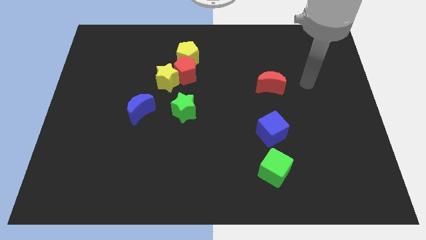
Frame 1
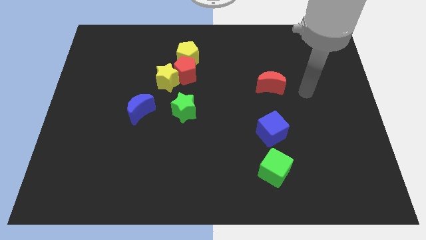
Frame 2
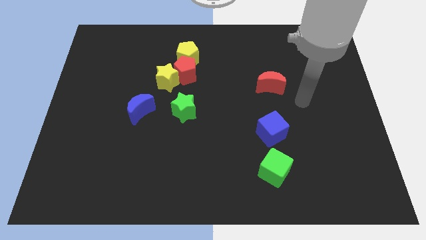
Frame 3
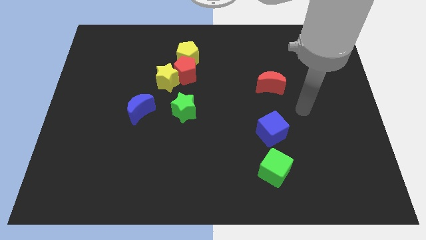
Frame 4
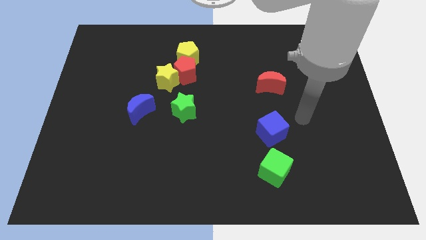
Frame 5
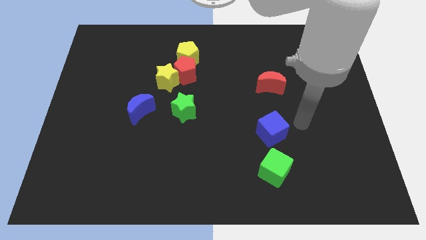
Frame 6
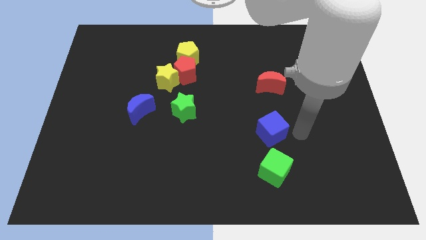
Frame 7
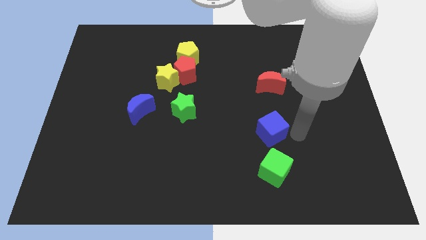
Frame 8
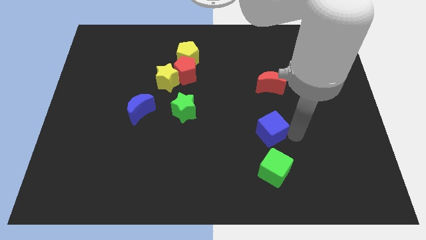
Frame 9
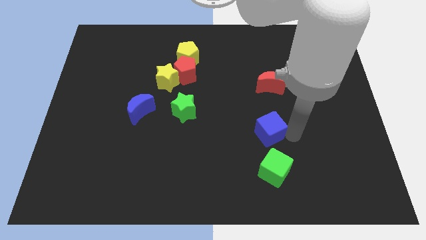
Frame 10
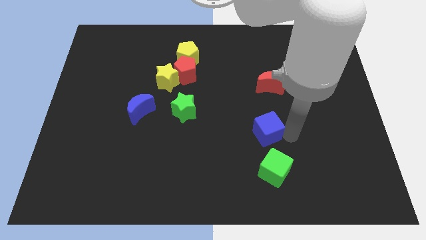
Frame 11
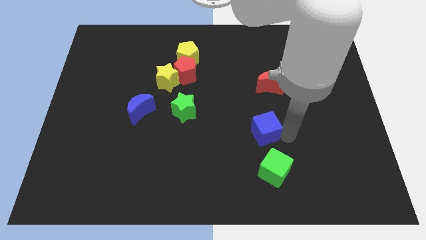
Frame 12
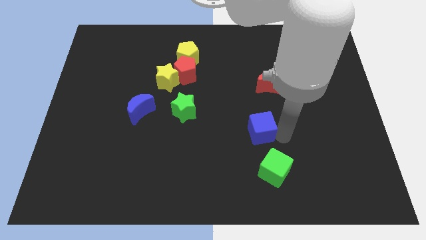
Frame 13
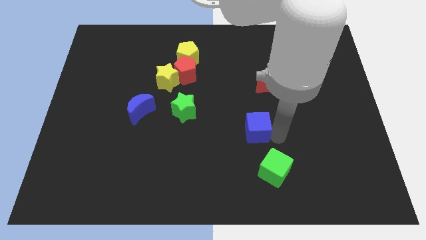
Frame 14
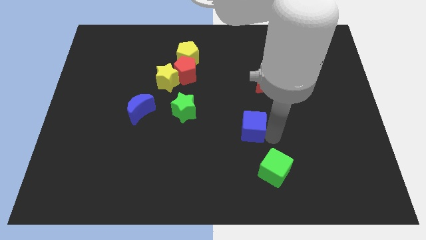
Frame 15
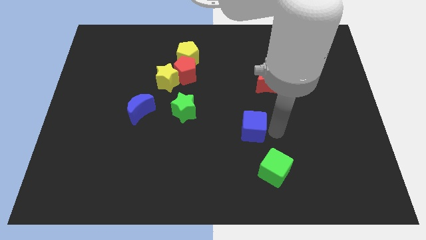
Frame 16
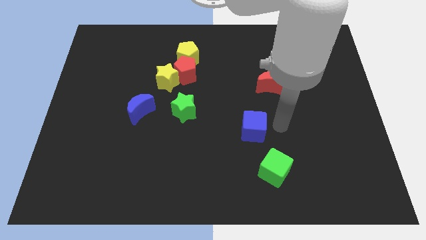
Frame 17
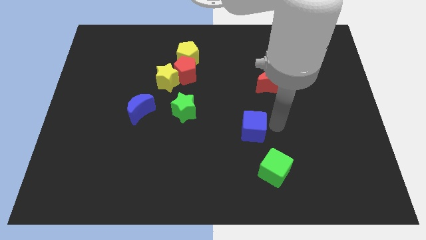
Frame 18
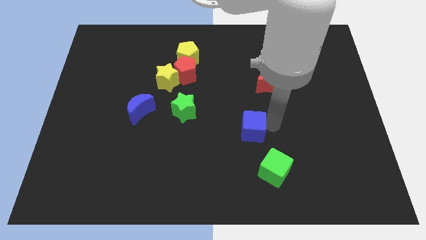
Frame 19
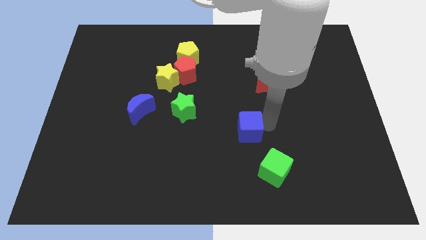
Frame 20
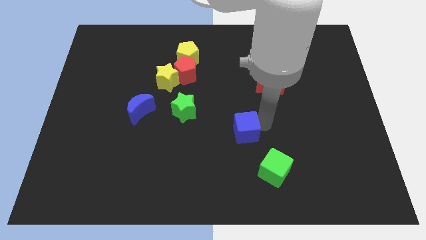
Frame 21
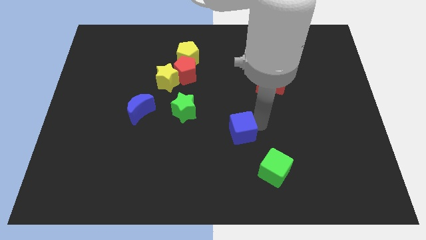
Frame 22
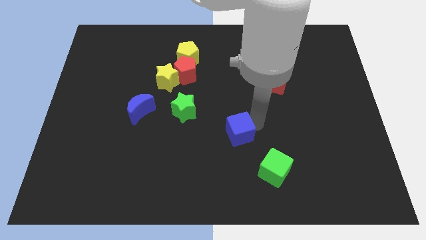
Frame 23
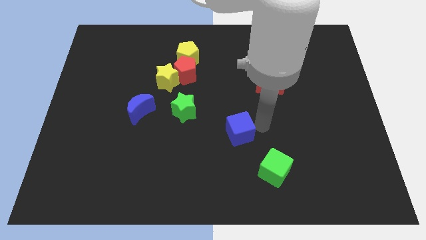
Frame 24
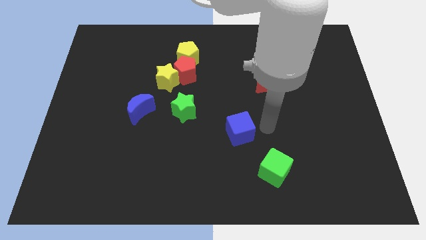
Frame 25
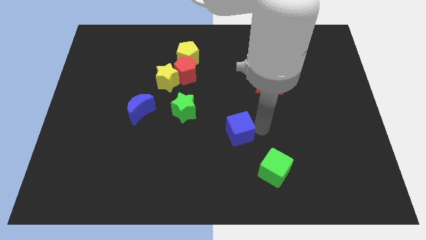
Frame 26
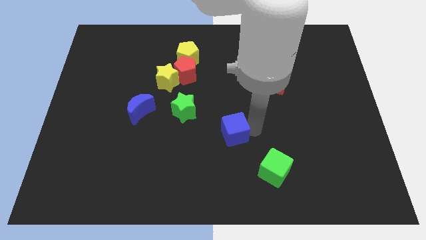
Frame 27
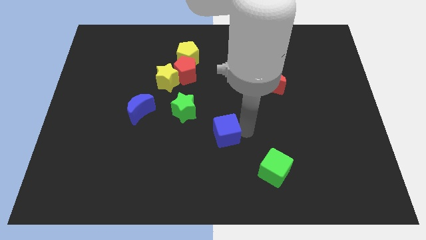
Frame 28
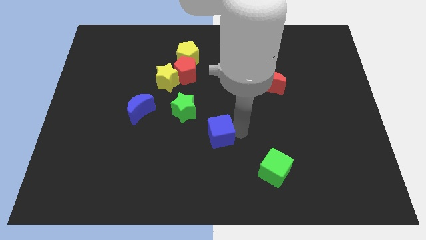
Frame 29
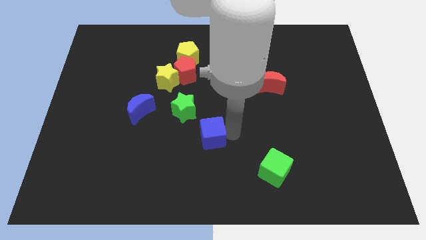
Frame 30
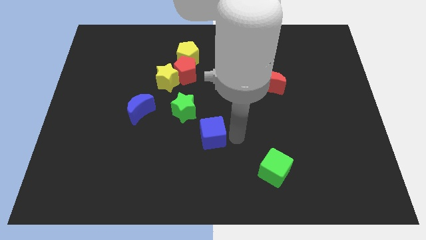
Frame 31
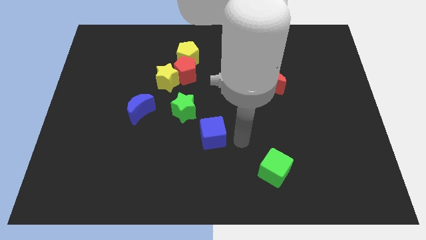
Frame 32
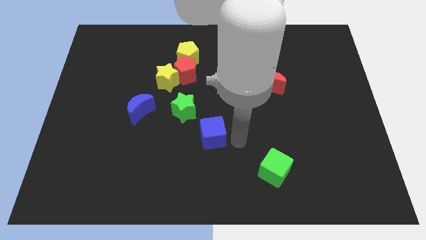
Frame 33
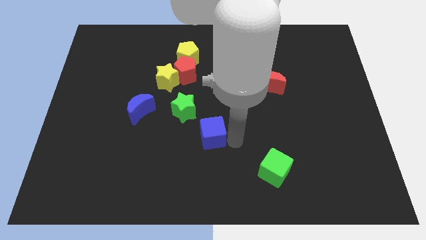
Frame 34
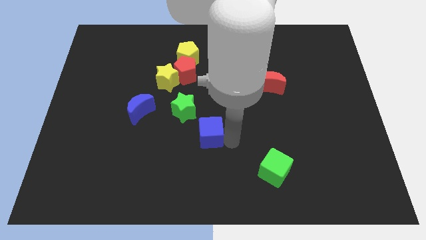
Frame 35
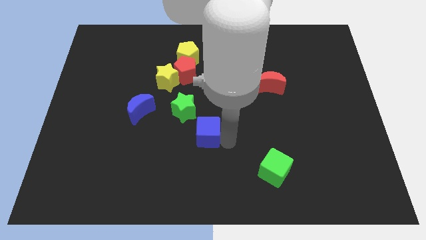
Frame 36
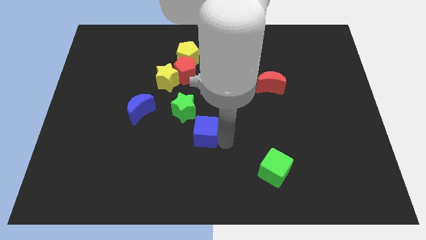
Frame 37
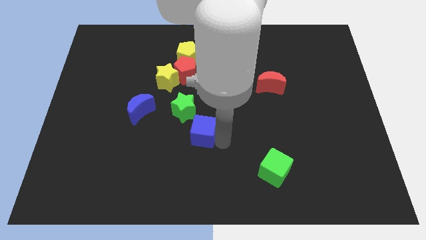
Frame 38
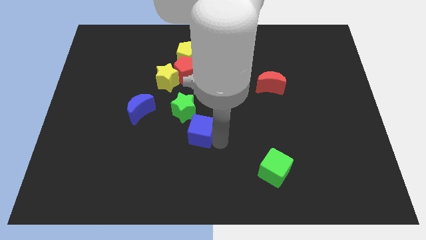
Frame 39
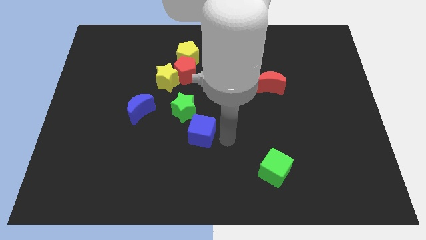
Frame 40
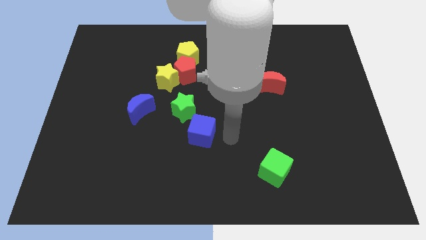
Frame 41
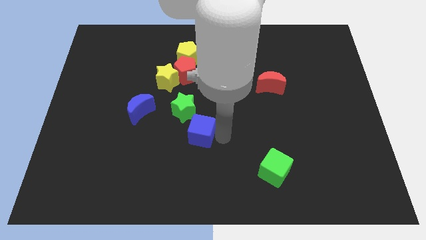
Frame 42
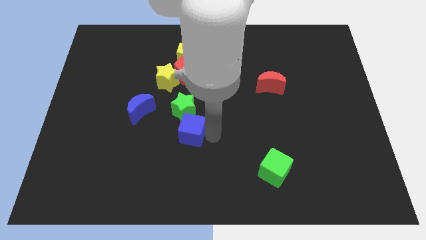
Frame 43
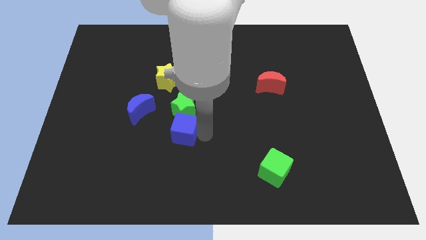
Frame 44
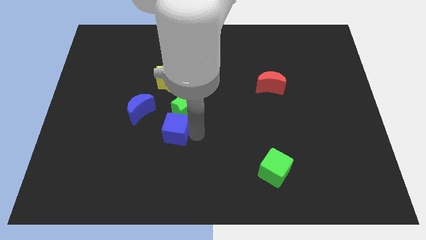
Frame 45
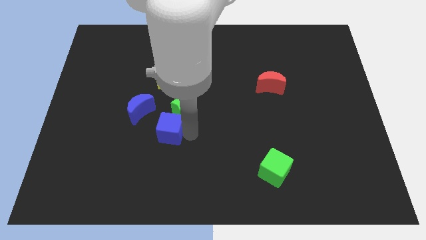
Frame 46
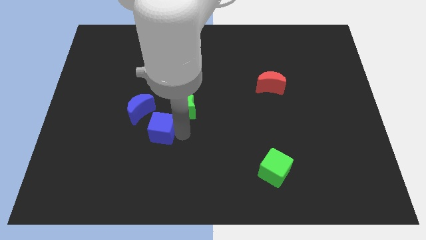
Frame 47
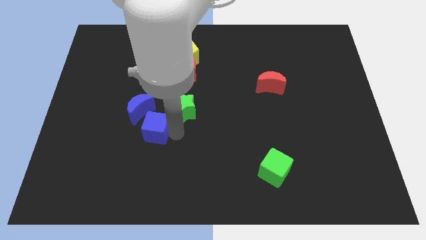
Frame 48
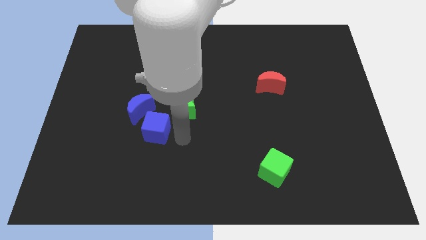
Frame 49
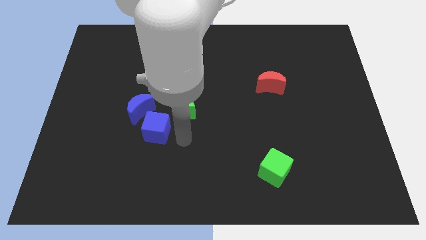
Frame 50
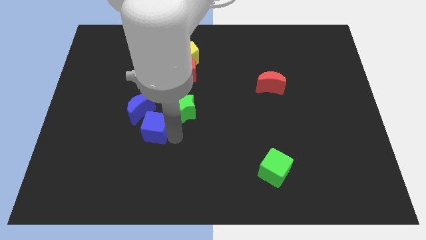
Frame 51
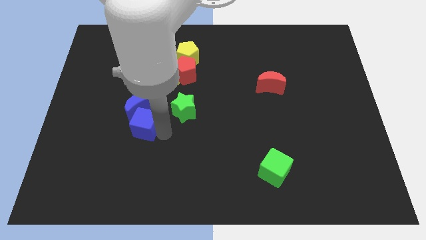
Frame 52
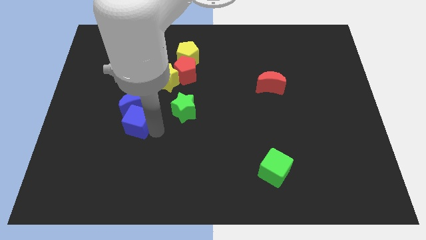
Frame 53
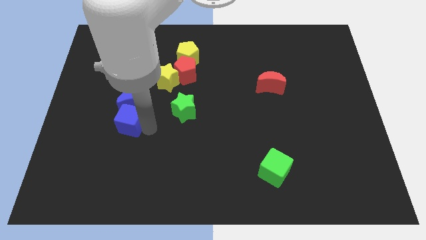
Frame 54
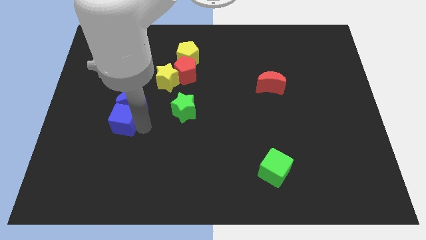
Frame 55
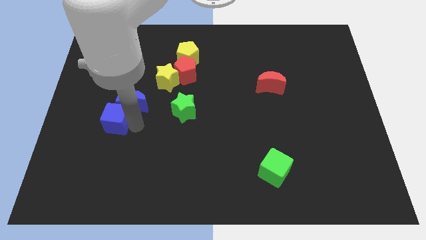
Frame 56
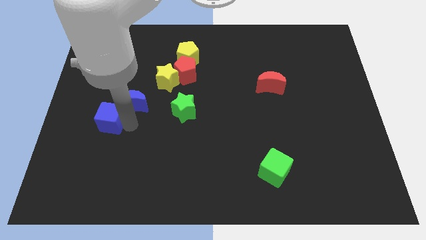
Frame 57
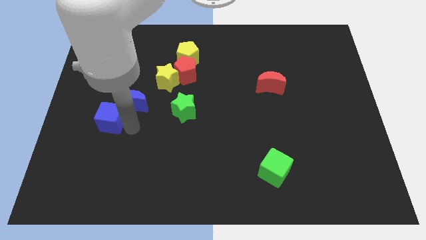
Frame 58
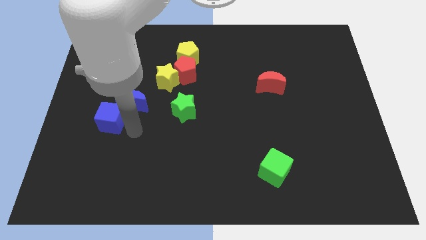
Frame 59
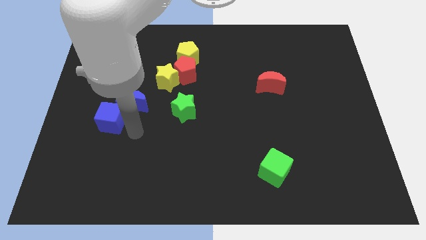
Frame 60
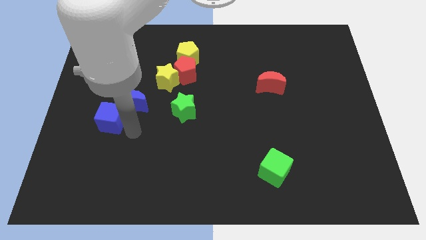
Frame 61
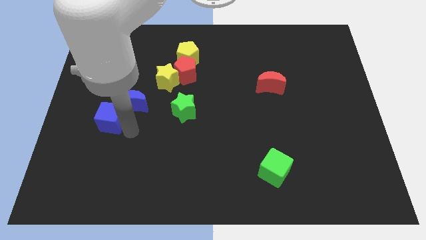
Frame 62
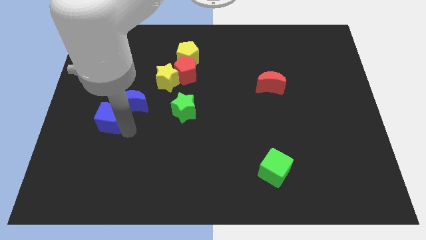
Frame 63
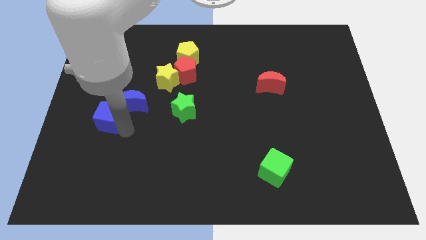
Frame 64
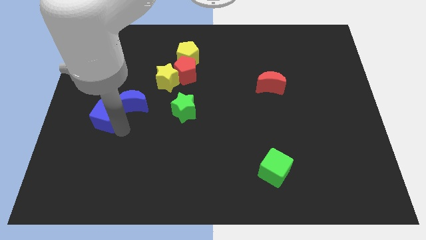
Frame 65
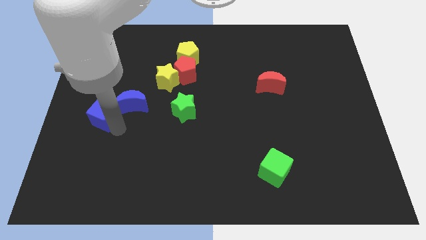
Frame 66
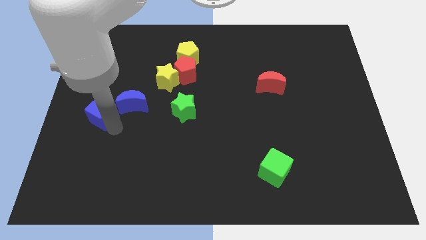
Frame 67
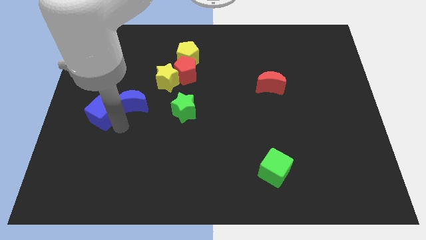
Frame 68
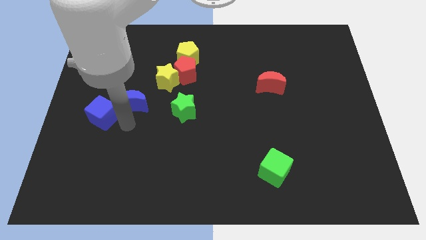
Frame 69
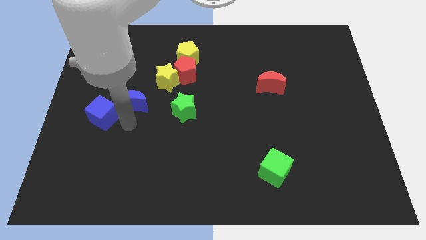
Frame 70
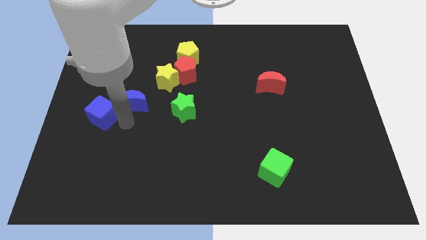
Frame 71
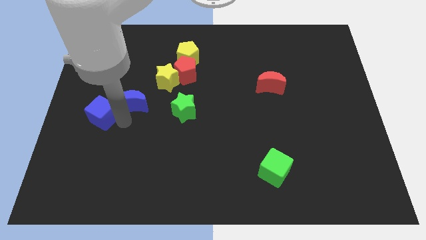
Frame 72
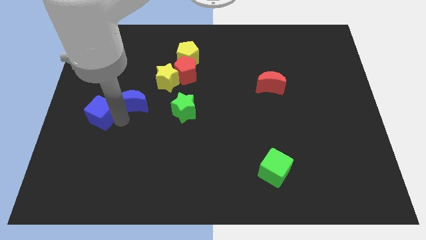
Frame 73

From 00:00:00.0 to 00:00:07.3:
push the blue cube to the center left
